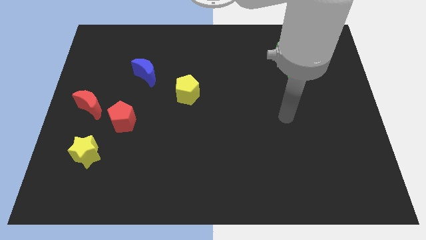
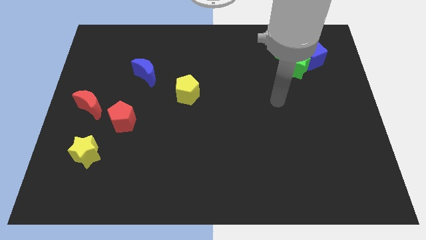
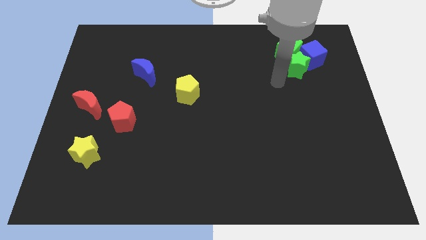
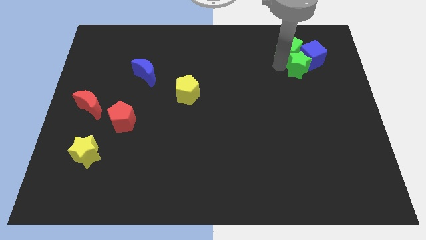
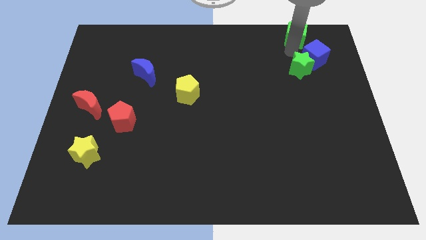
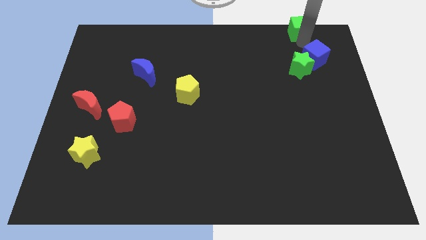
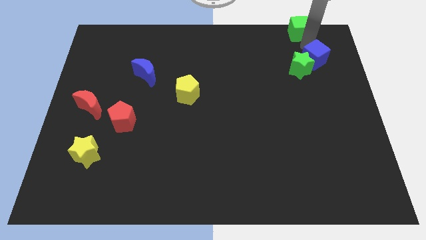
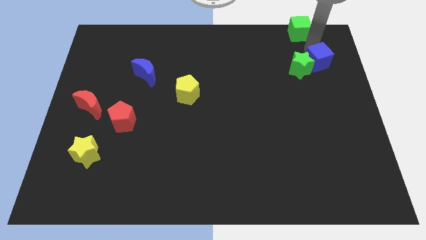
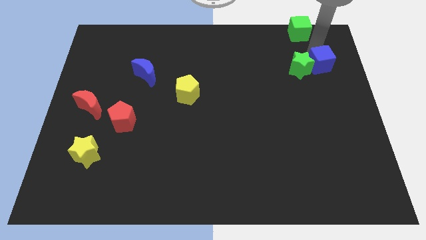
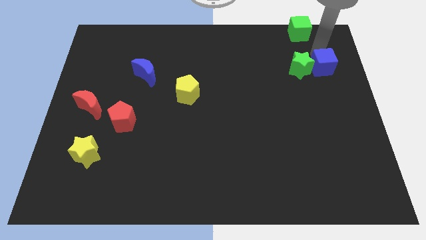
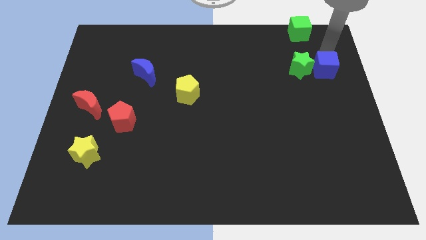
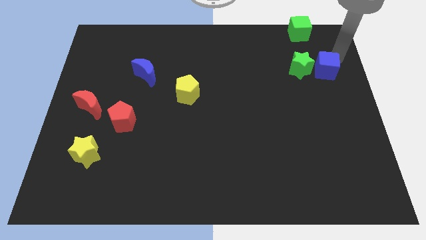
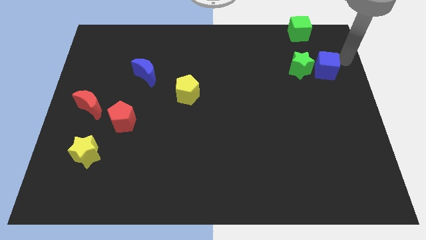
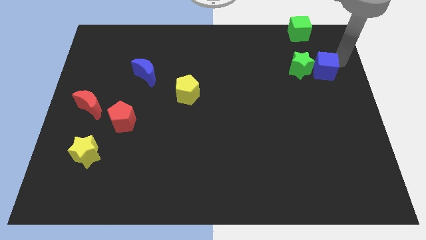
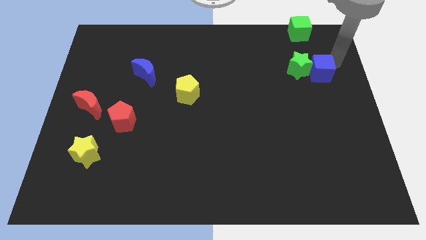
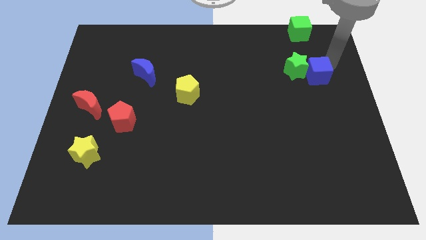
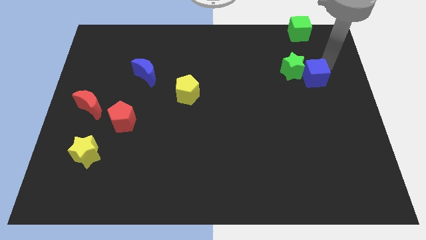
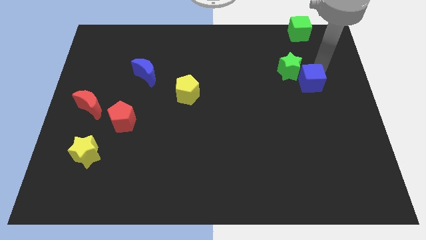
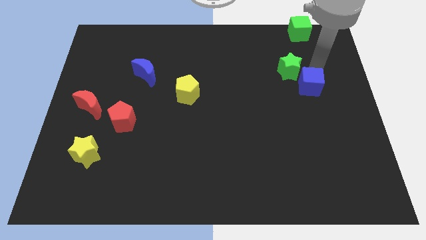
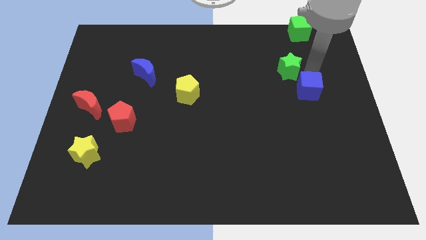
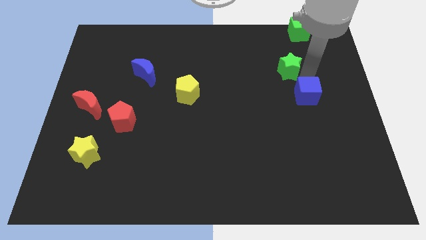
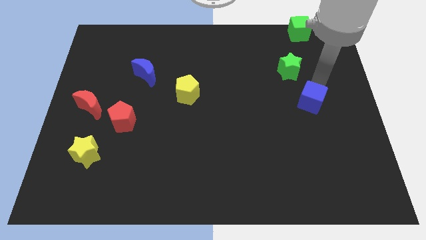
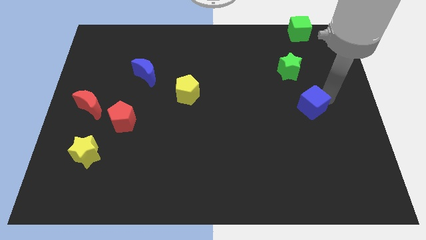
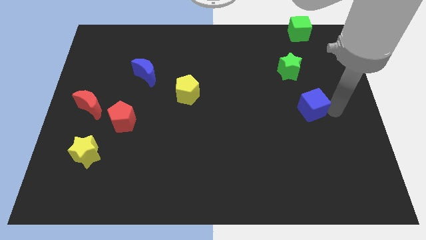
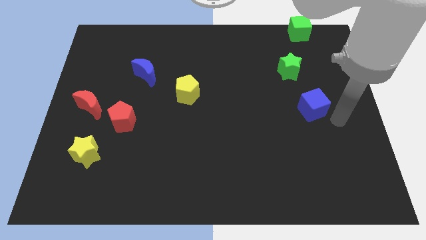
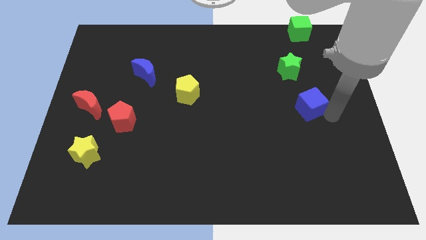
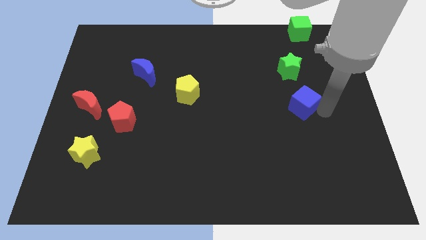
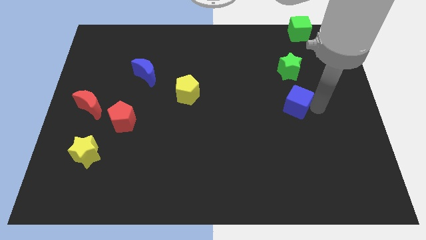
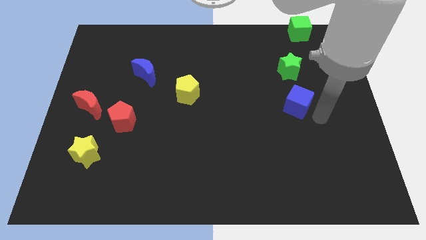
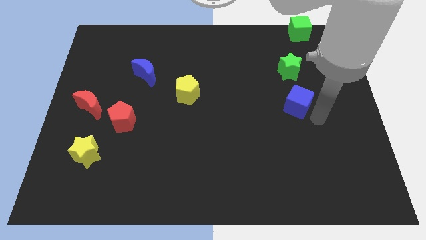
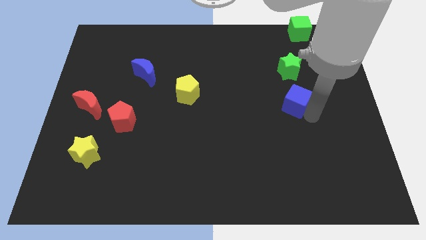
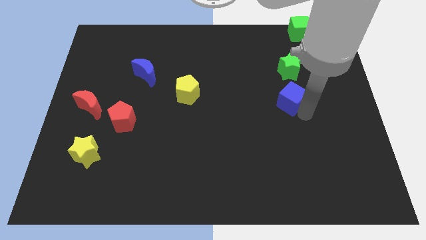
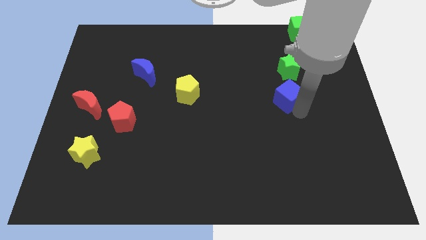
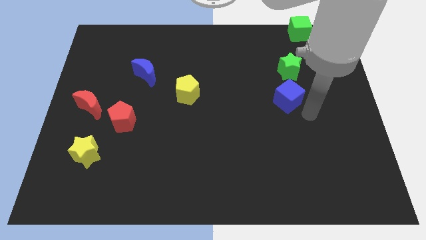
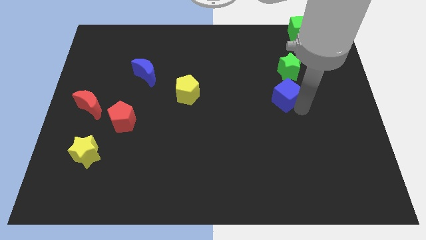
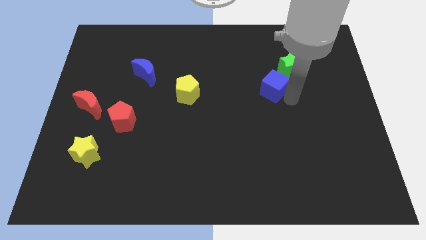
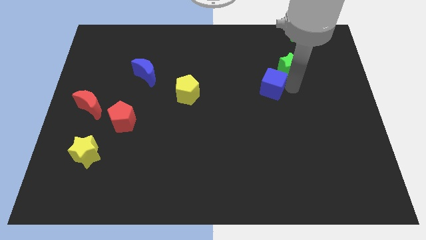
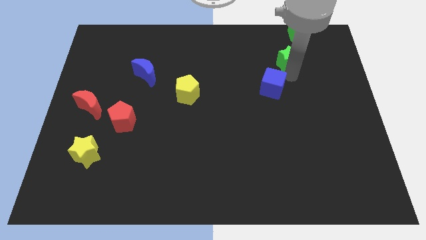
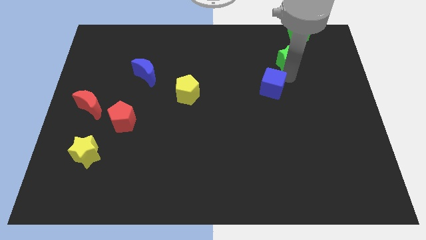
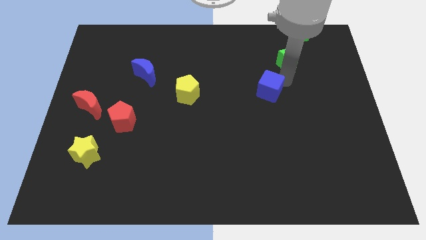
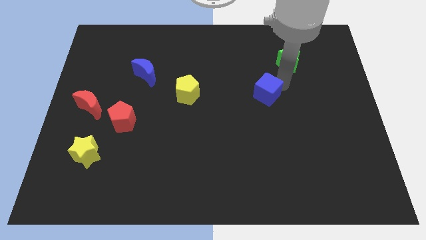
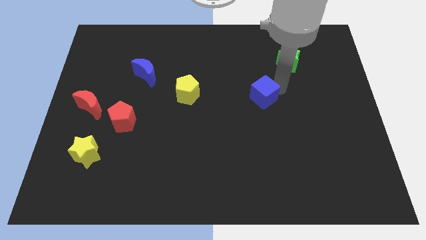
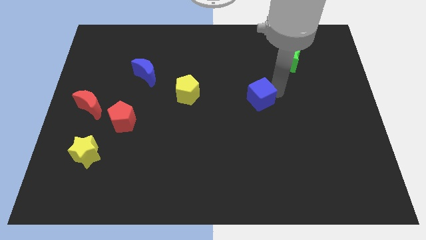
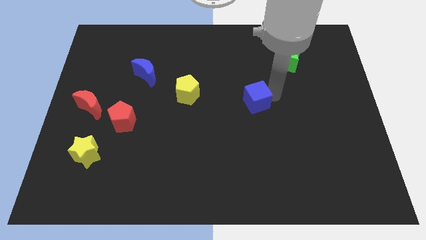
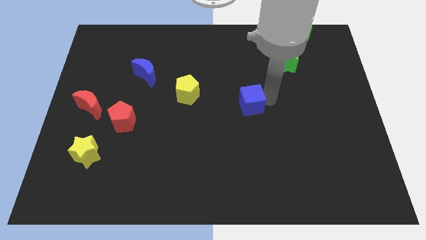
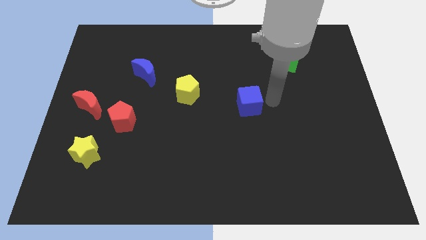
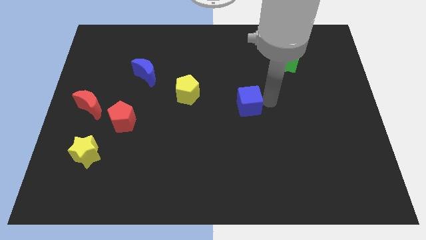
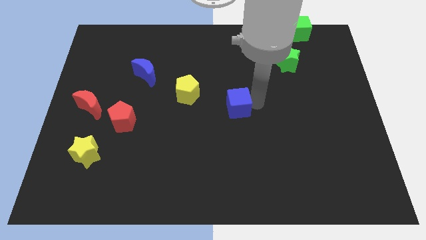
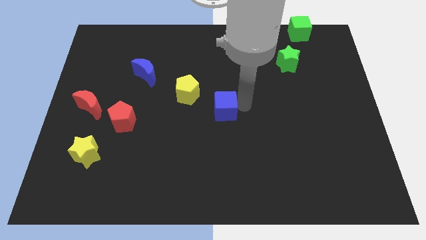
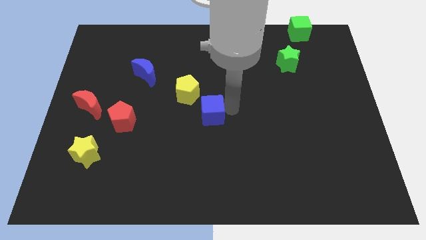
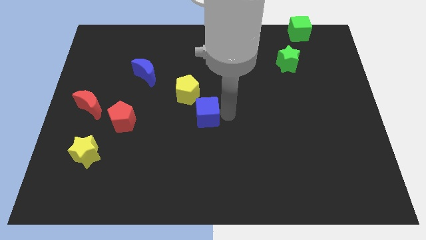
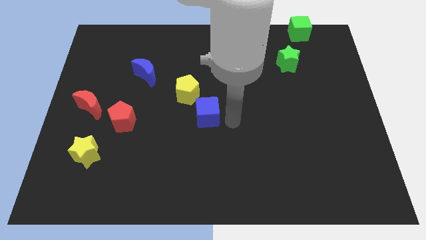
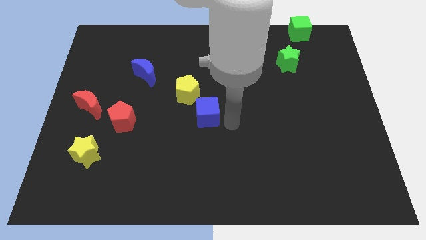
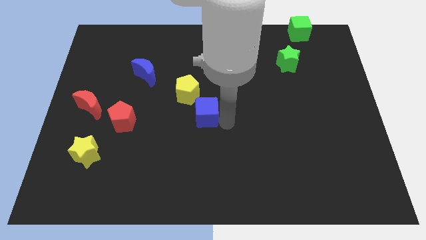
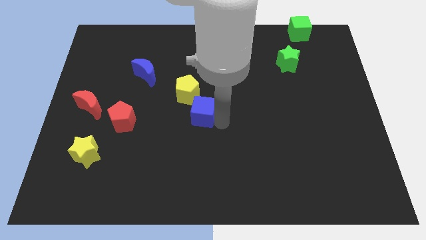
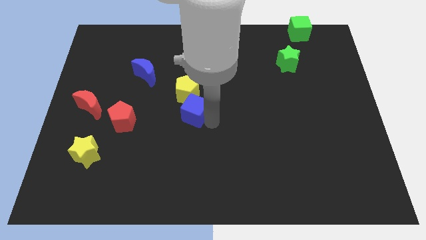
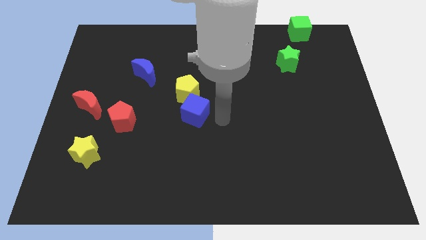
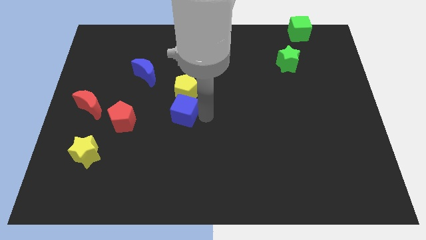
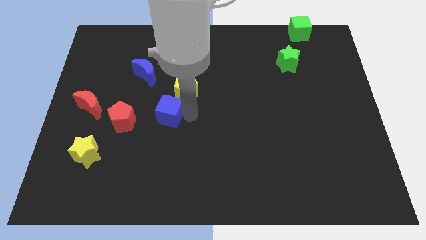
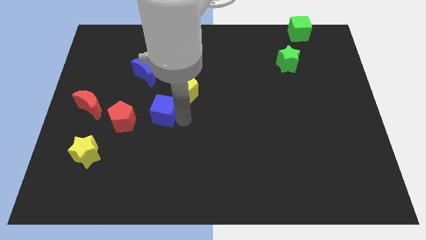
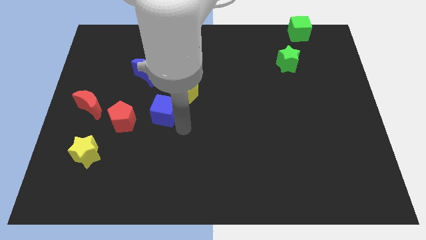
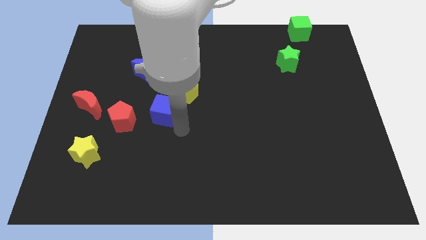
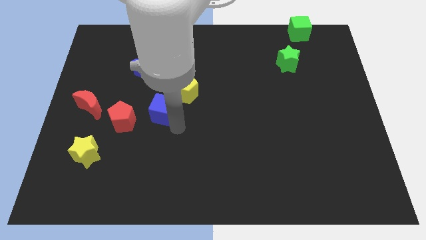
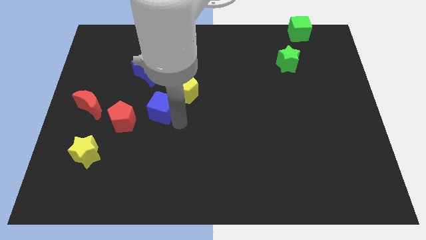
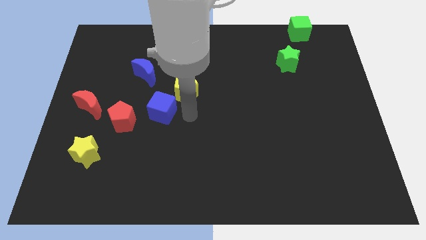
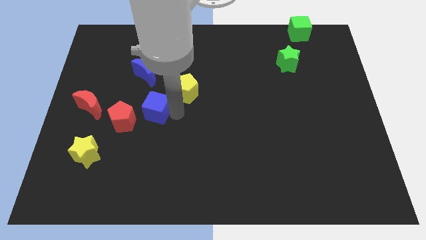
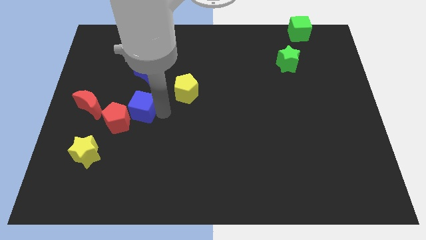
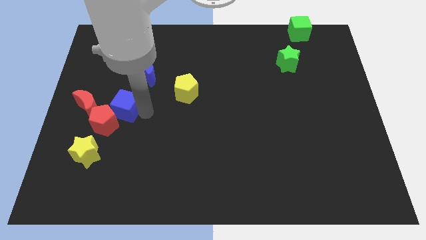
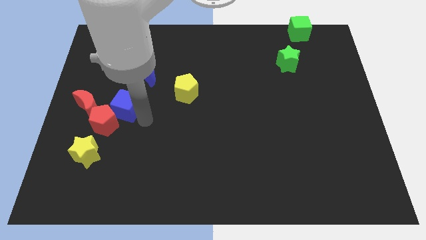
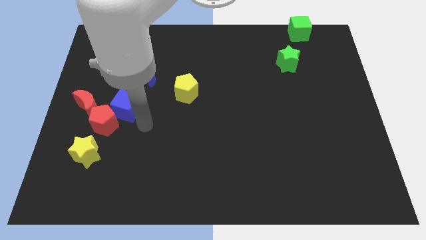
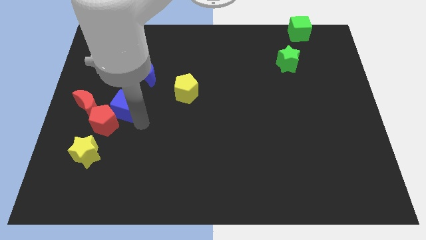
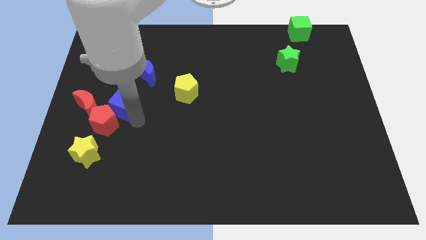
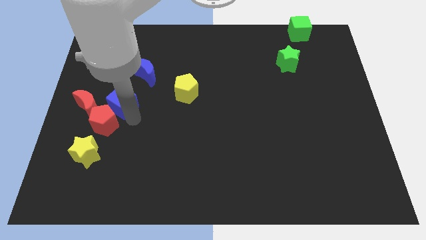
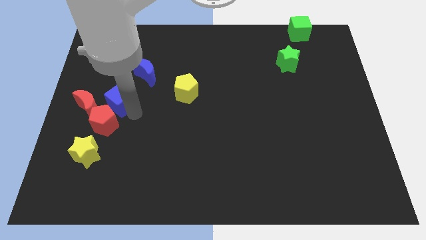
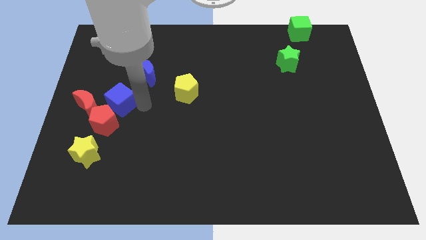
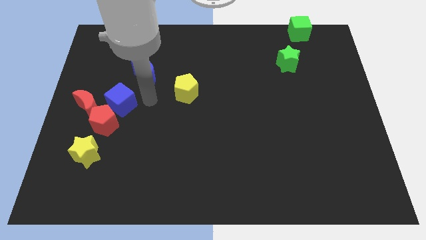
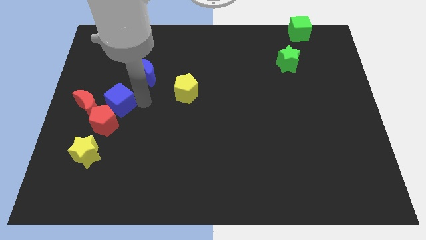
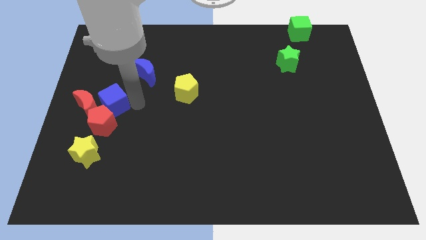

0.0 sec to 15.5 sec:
slide the blue cube next to the red moon
